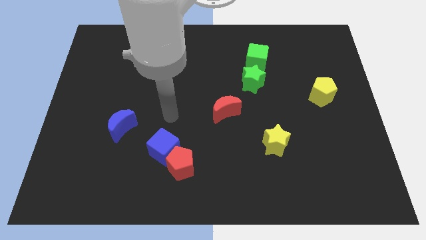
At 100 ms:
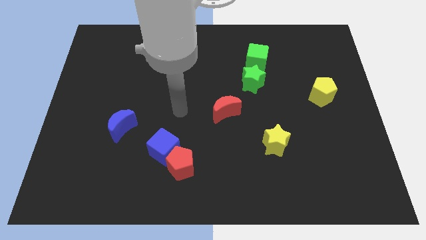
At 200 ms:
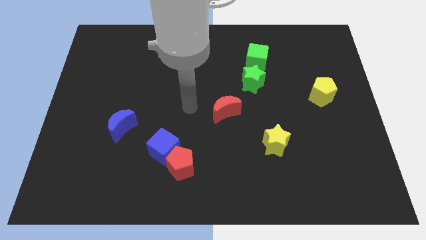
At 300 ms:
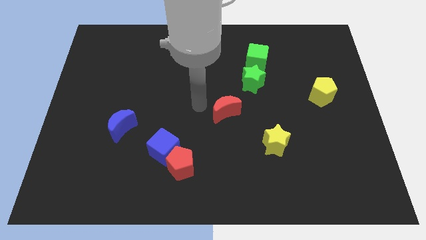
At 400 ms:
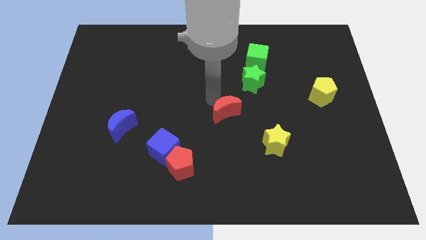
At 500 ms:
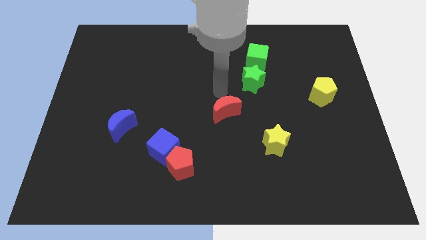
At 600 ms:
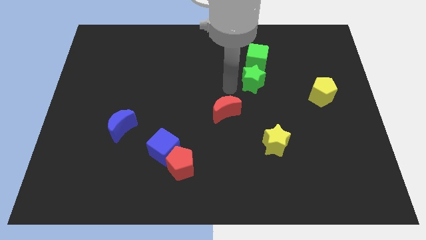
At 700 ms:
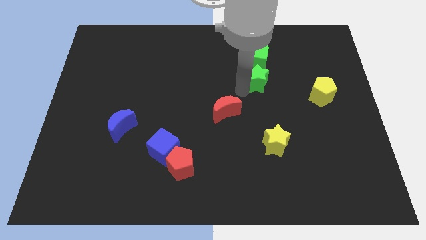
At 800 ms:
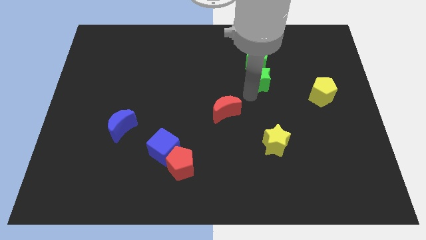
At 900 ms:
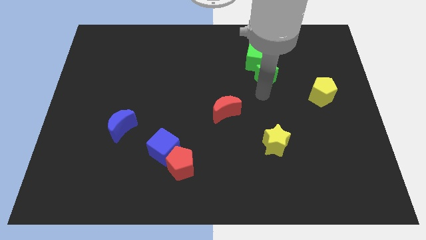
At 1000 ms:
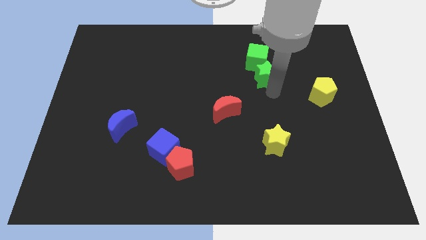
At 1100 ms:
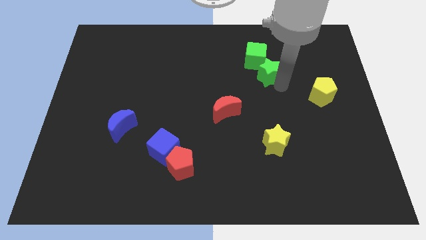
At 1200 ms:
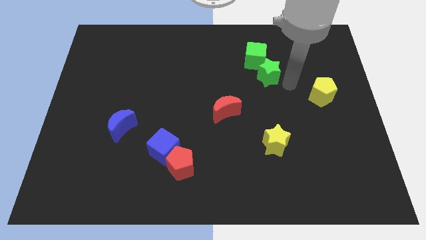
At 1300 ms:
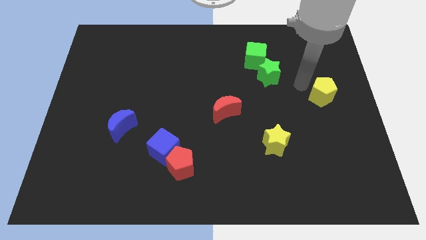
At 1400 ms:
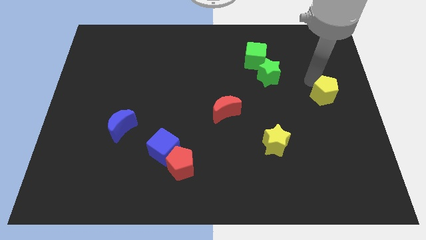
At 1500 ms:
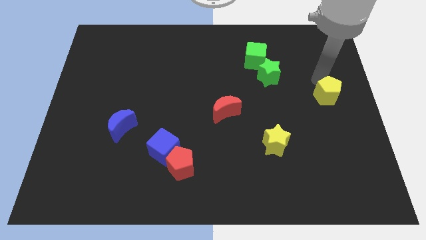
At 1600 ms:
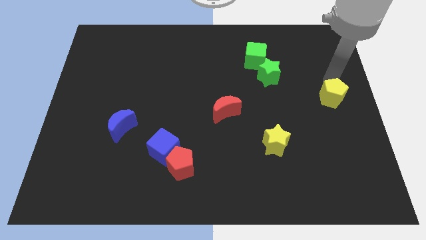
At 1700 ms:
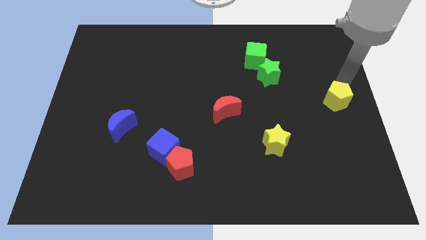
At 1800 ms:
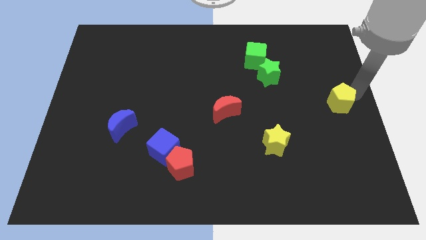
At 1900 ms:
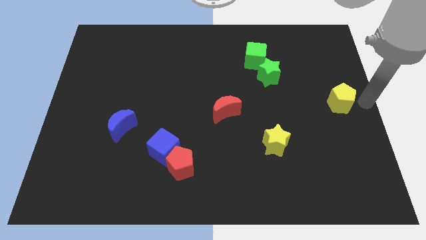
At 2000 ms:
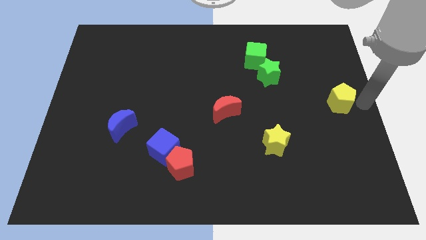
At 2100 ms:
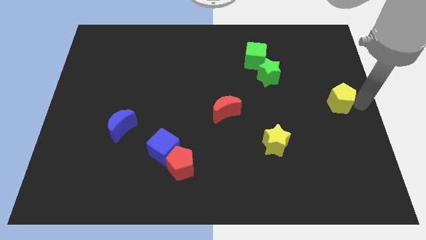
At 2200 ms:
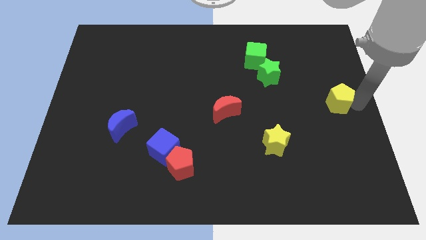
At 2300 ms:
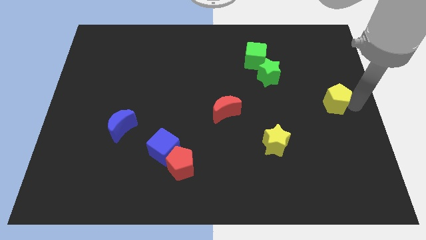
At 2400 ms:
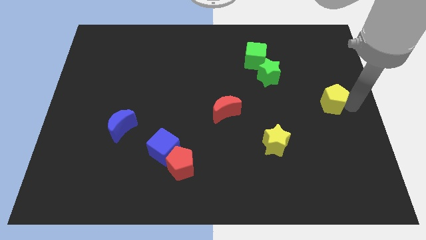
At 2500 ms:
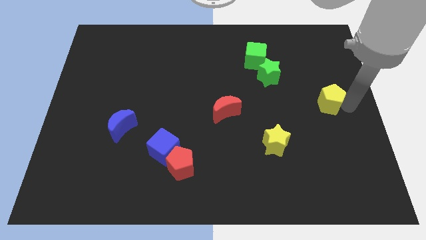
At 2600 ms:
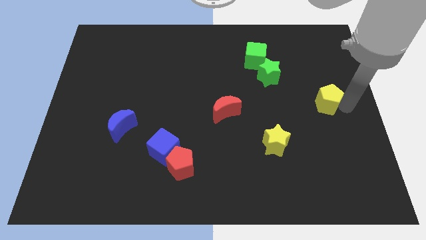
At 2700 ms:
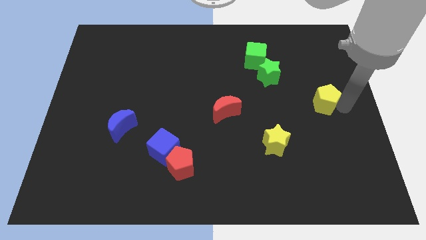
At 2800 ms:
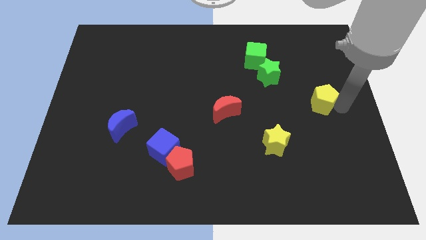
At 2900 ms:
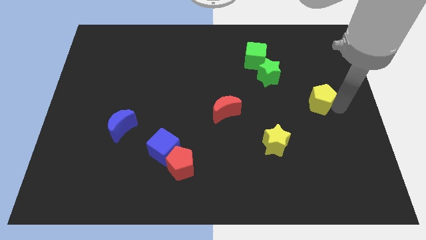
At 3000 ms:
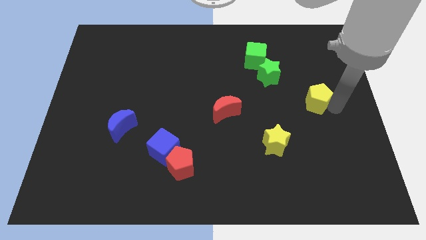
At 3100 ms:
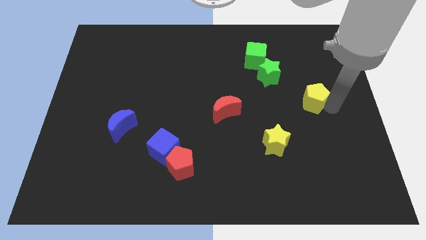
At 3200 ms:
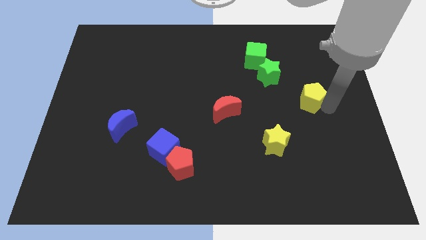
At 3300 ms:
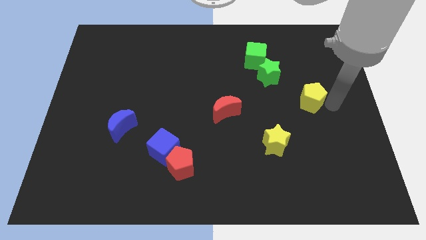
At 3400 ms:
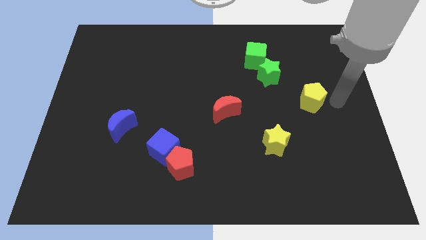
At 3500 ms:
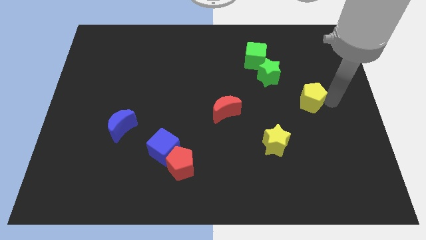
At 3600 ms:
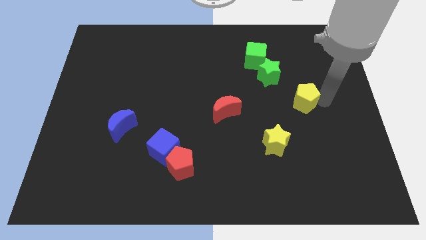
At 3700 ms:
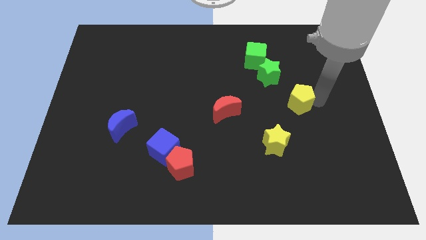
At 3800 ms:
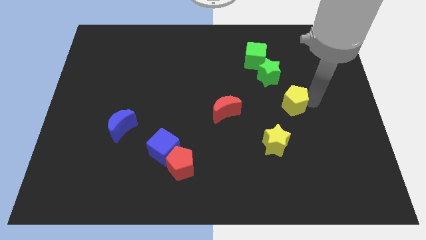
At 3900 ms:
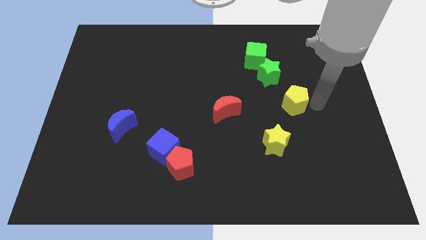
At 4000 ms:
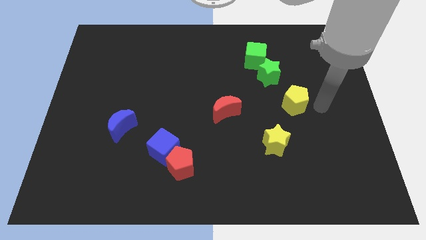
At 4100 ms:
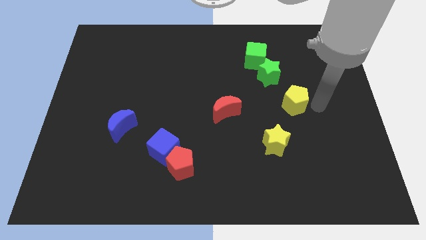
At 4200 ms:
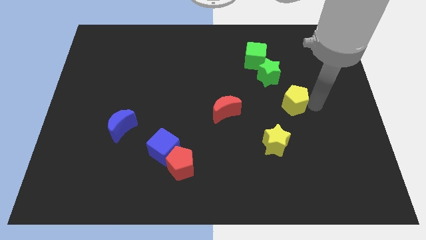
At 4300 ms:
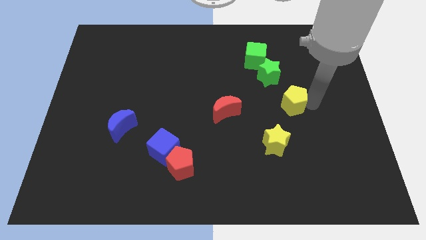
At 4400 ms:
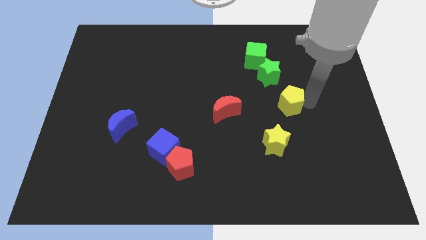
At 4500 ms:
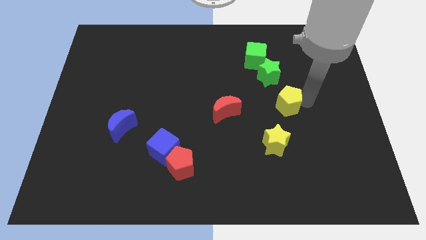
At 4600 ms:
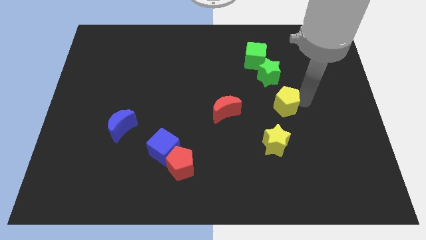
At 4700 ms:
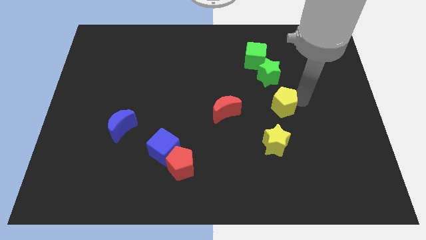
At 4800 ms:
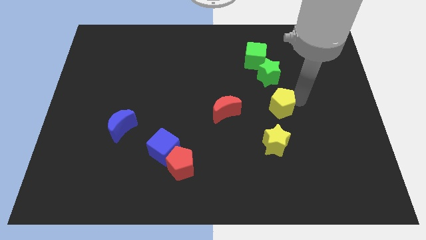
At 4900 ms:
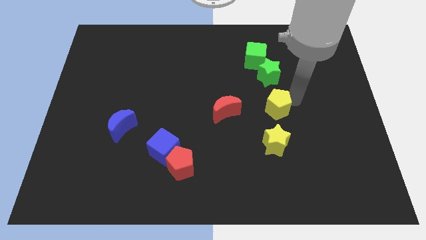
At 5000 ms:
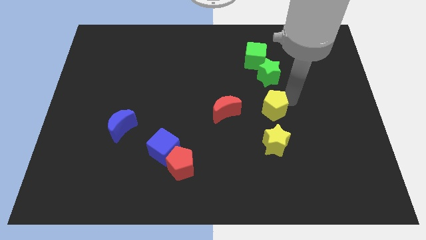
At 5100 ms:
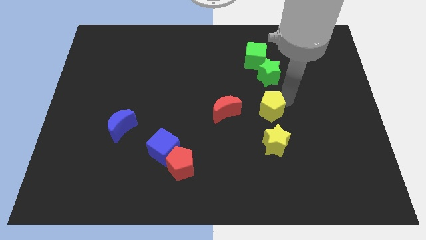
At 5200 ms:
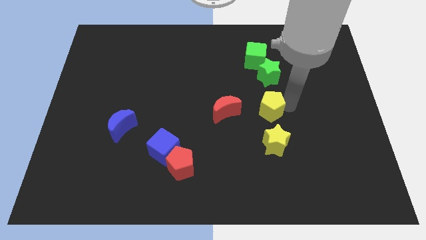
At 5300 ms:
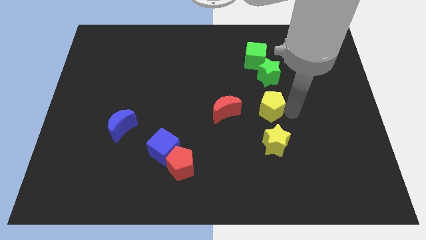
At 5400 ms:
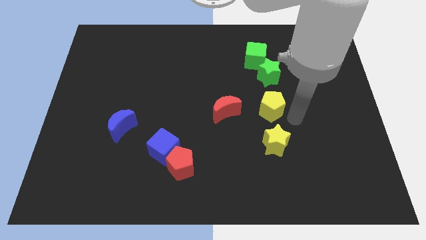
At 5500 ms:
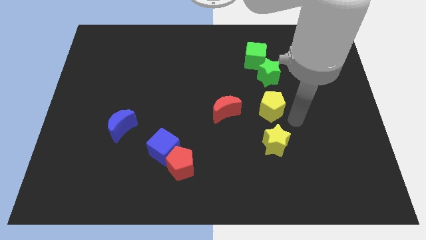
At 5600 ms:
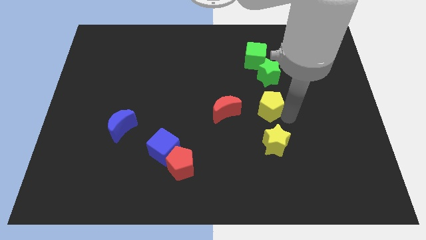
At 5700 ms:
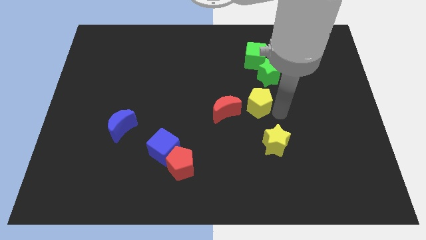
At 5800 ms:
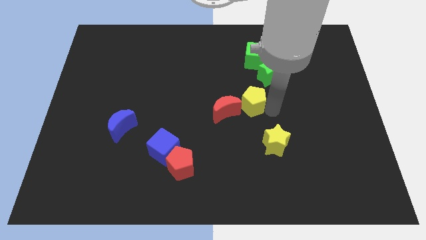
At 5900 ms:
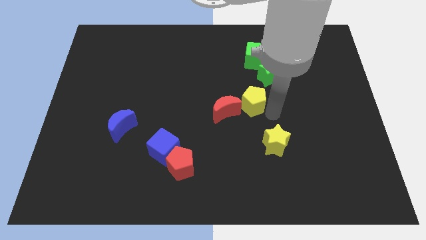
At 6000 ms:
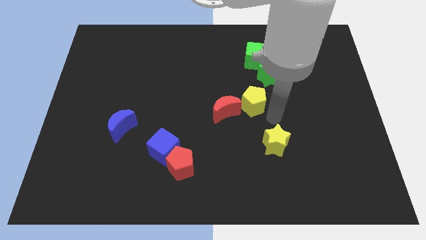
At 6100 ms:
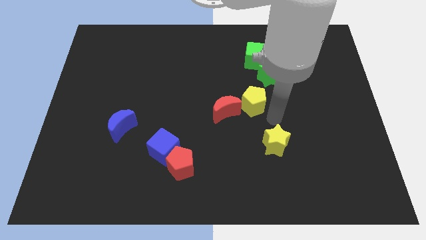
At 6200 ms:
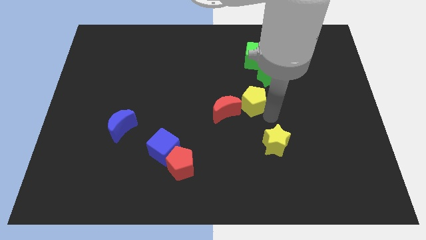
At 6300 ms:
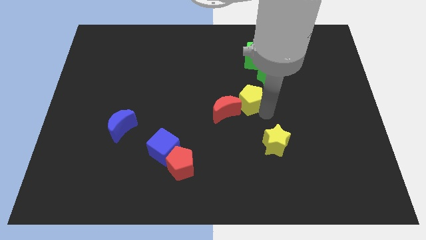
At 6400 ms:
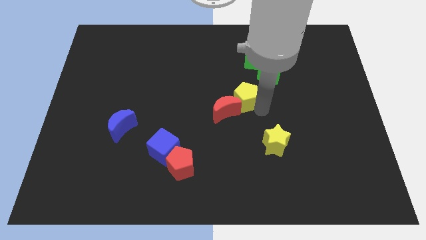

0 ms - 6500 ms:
put the yellow pentagon to the top side of the red moon

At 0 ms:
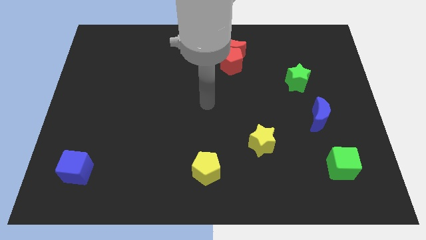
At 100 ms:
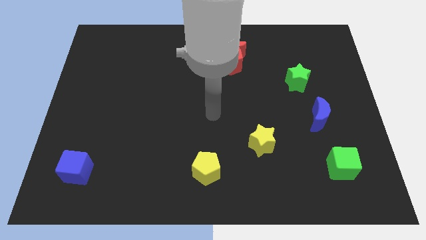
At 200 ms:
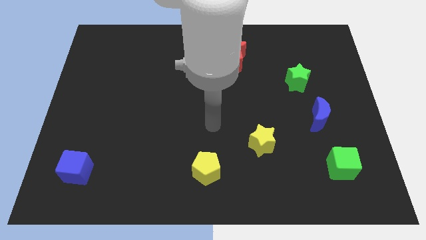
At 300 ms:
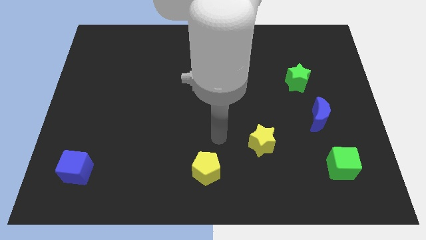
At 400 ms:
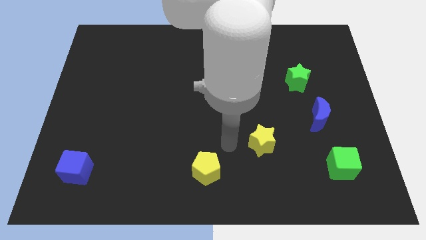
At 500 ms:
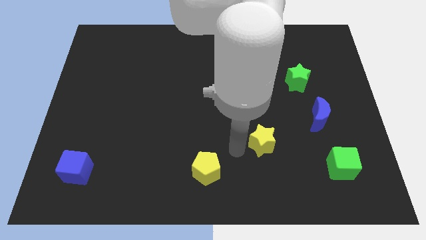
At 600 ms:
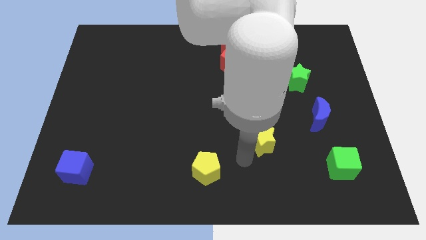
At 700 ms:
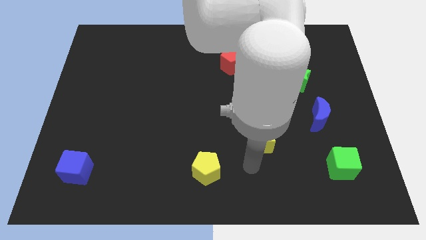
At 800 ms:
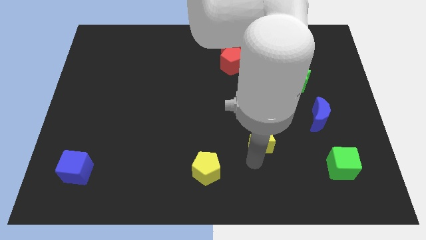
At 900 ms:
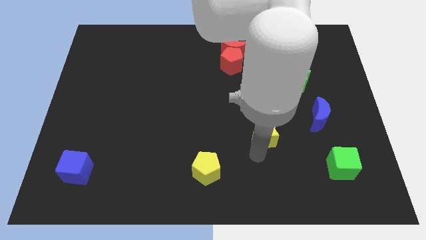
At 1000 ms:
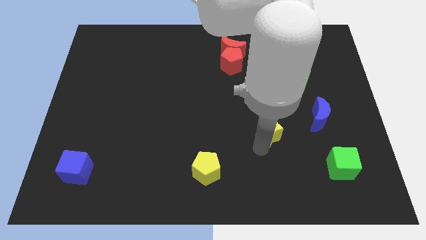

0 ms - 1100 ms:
move the yellow star left of the blue moon

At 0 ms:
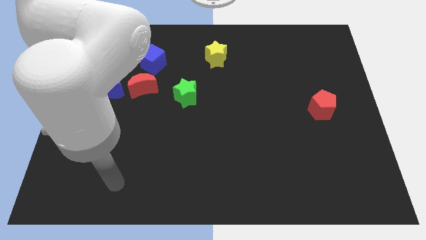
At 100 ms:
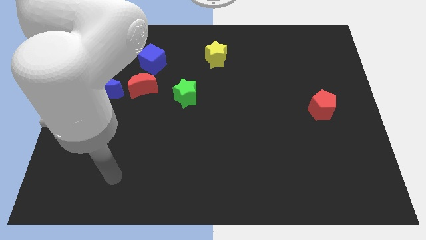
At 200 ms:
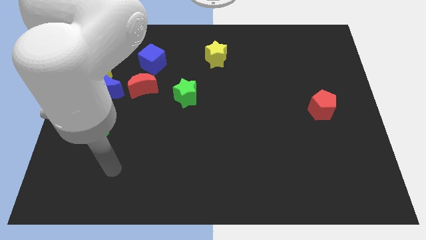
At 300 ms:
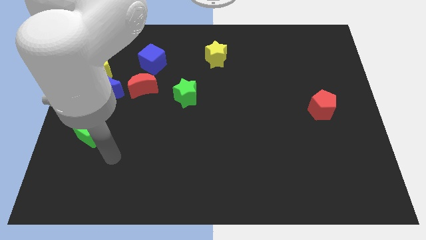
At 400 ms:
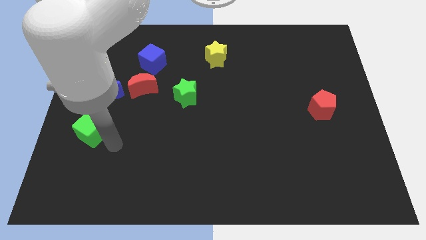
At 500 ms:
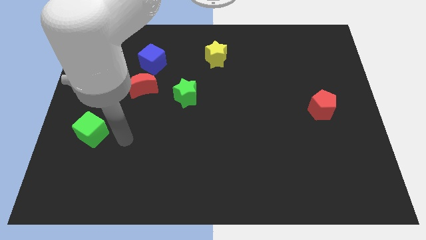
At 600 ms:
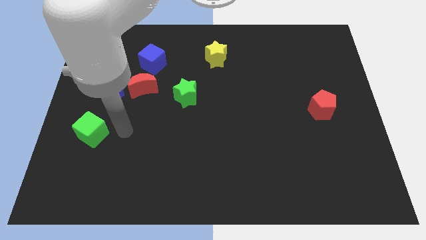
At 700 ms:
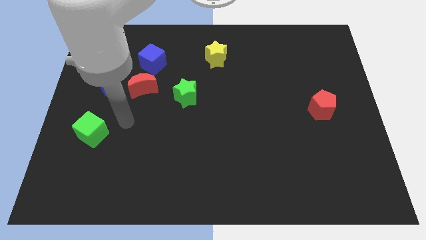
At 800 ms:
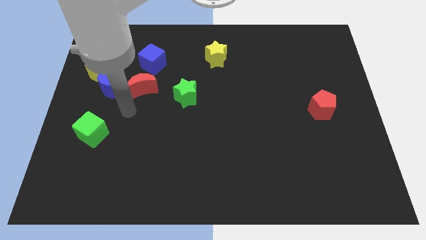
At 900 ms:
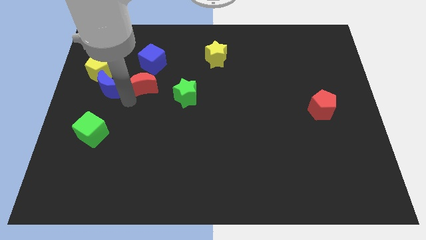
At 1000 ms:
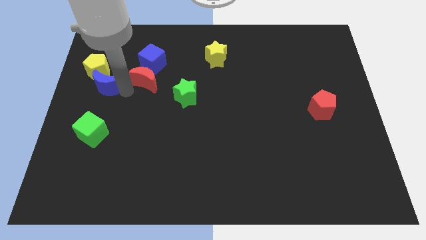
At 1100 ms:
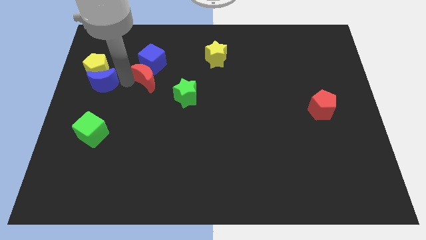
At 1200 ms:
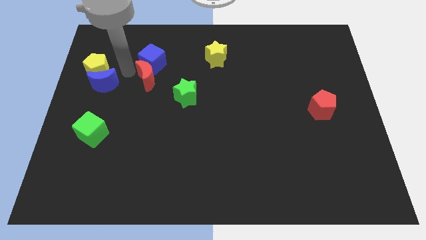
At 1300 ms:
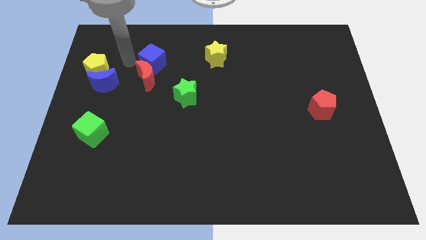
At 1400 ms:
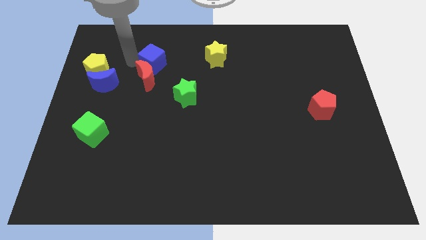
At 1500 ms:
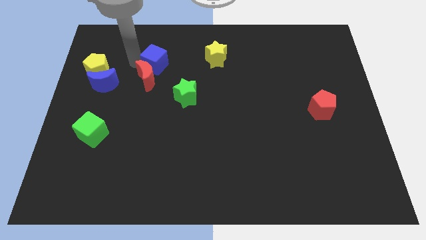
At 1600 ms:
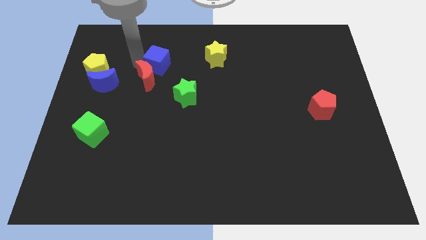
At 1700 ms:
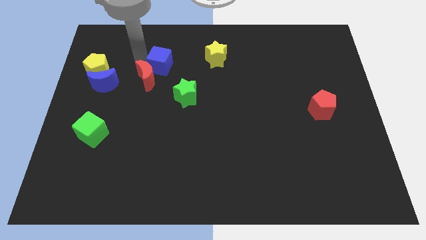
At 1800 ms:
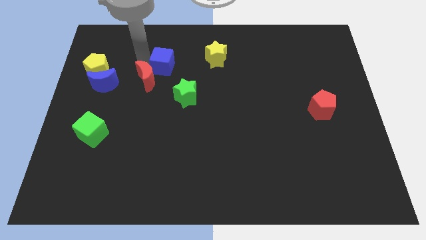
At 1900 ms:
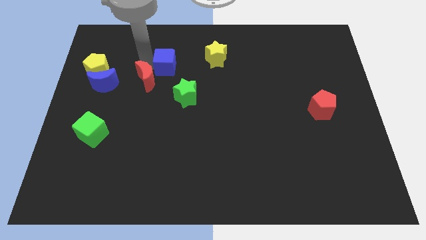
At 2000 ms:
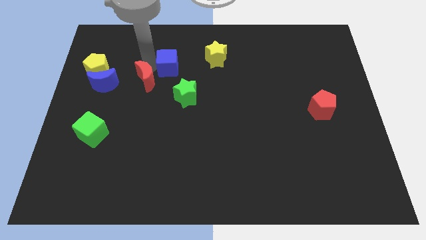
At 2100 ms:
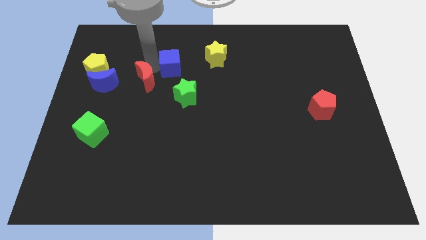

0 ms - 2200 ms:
put the blue cube above the green star
